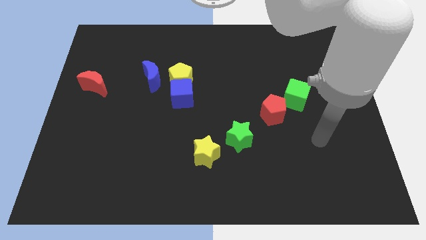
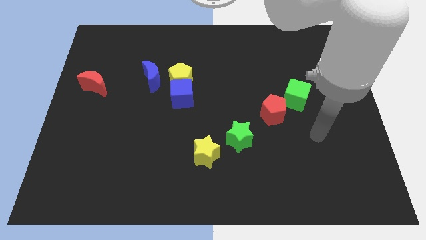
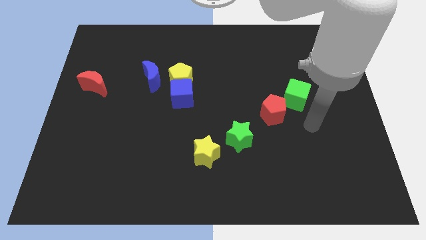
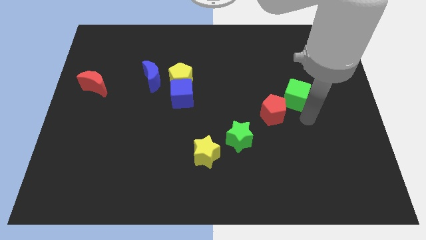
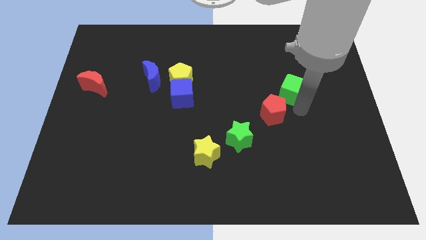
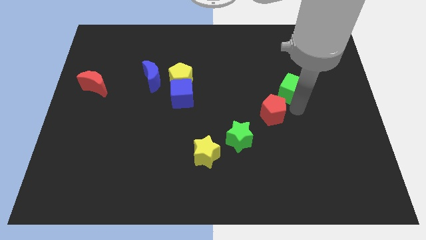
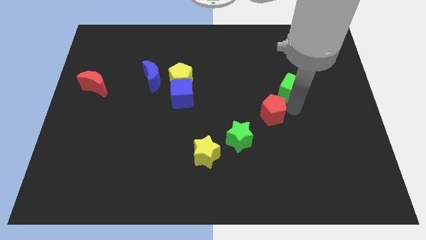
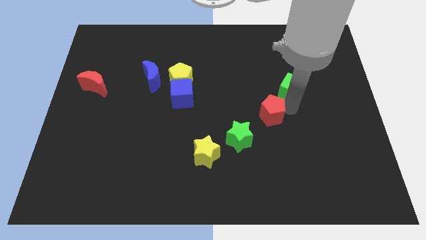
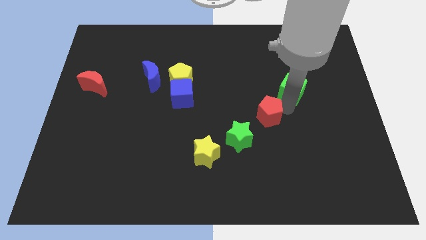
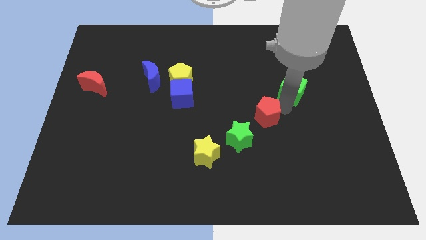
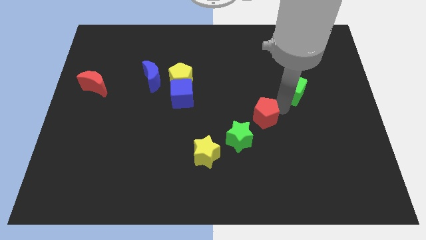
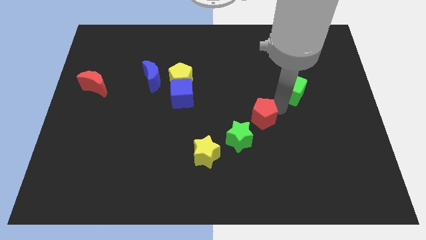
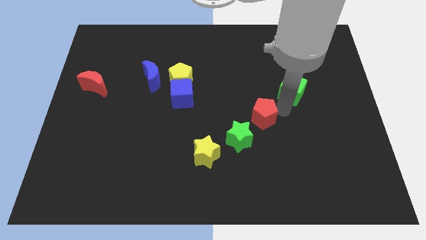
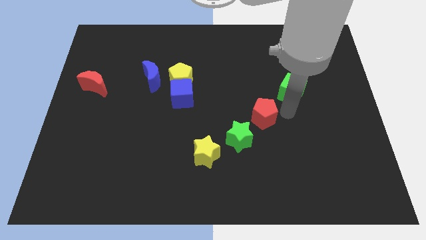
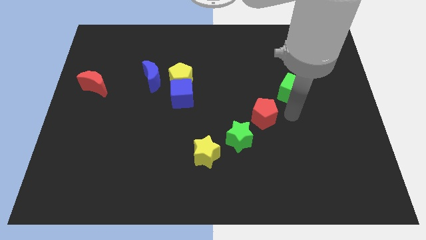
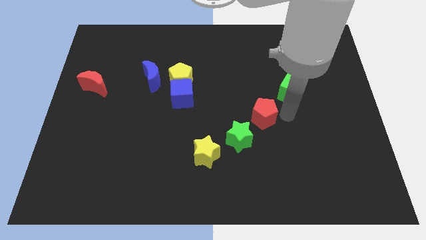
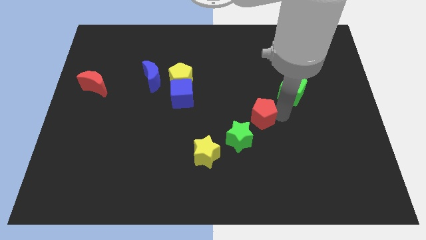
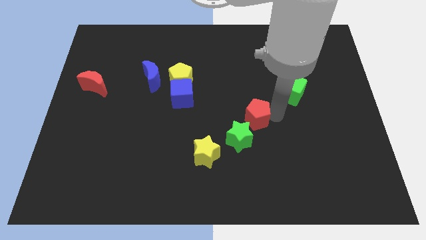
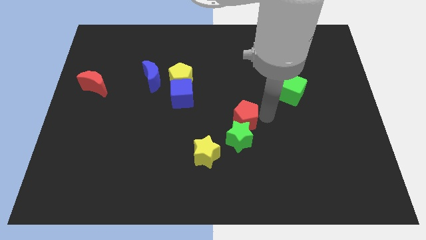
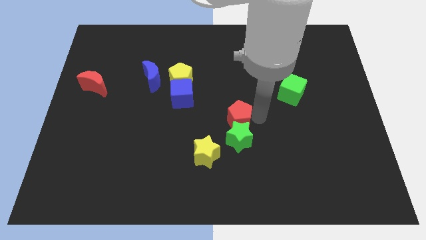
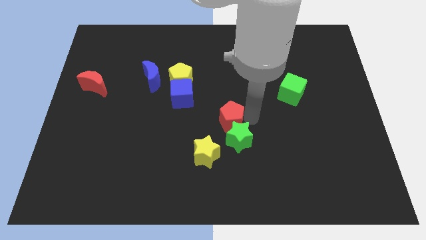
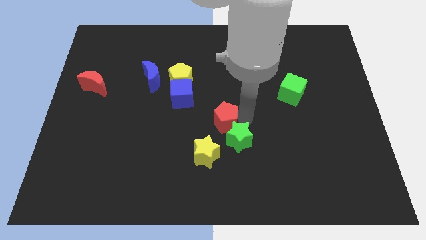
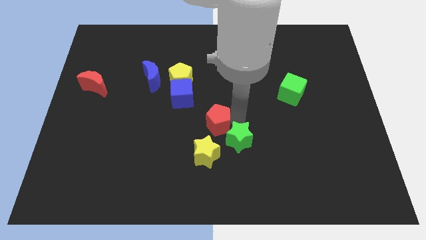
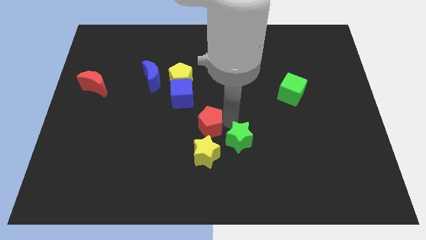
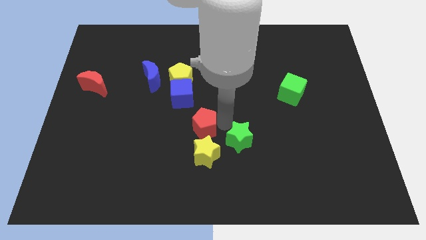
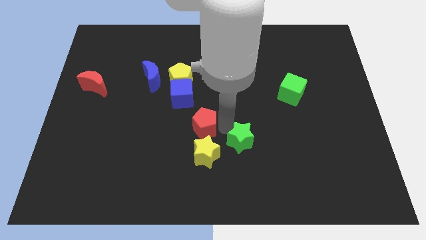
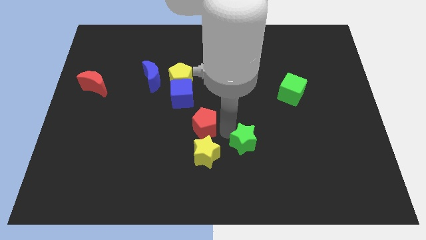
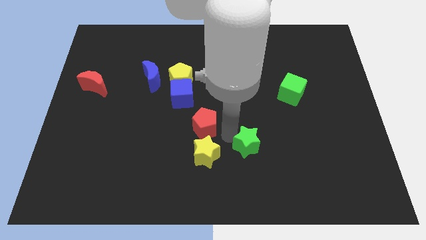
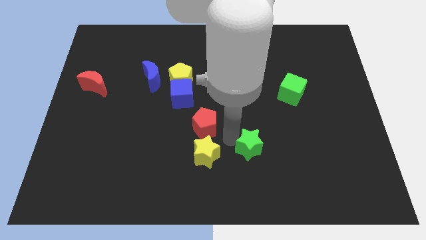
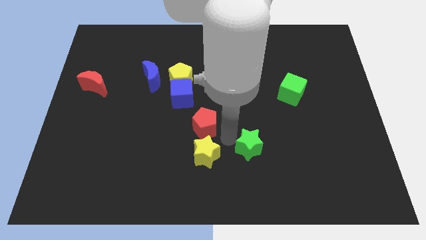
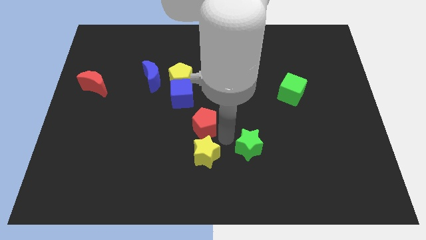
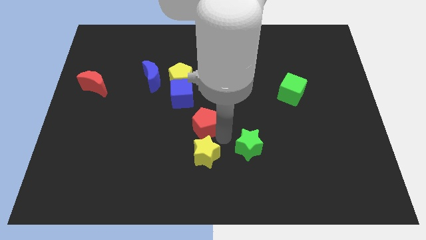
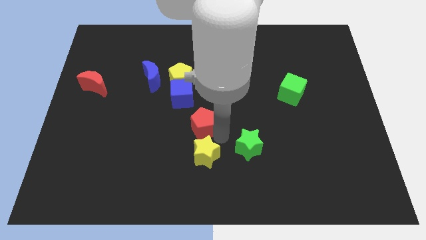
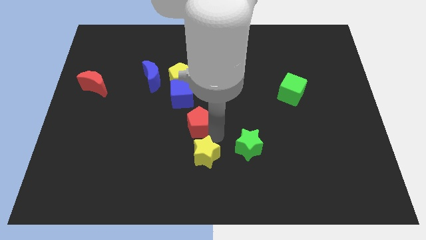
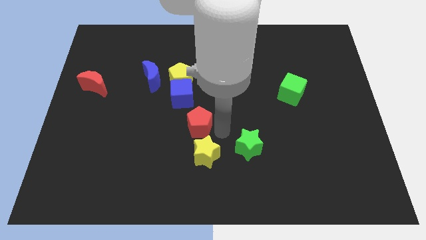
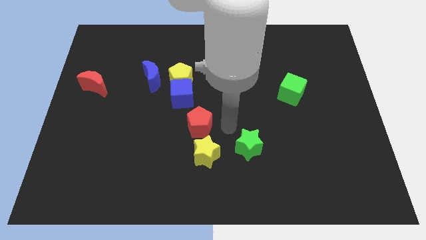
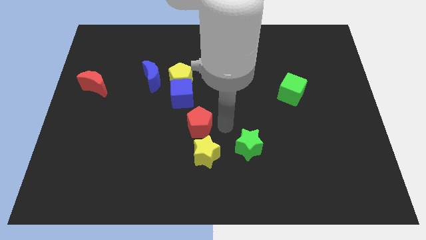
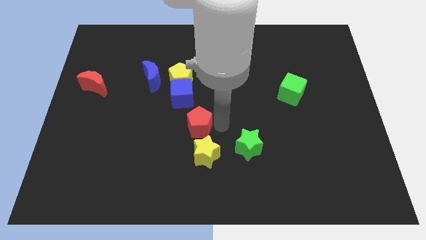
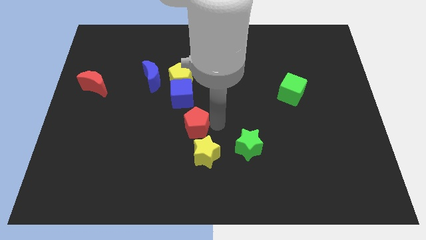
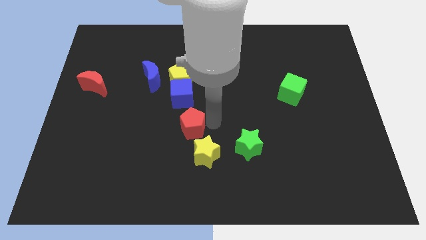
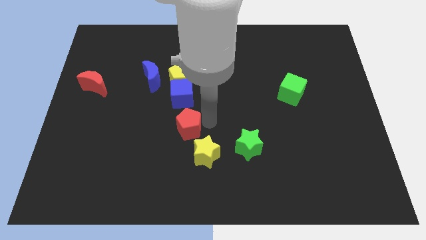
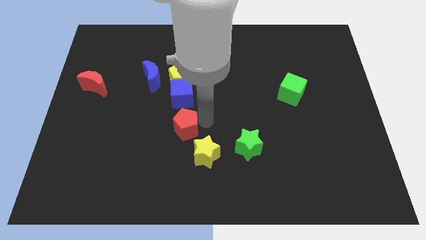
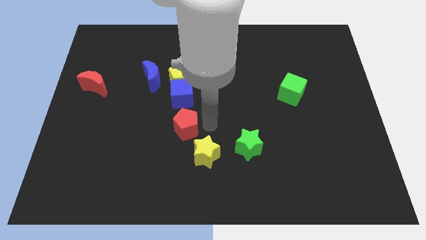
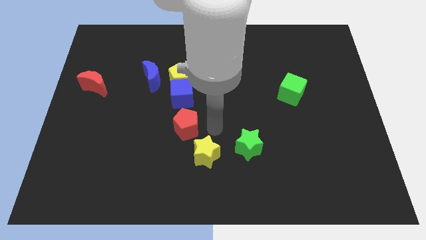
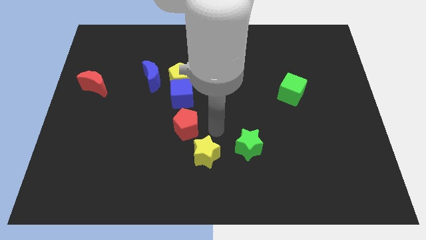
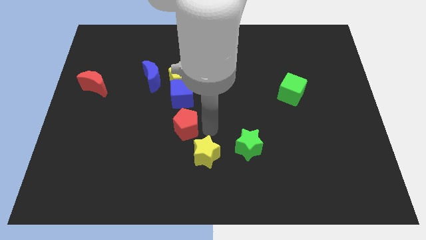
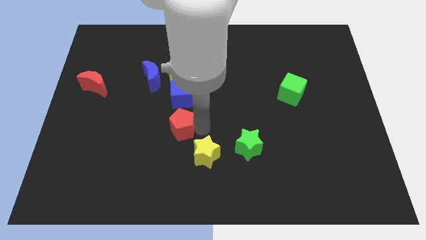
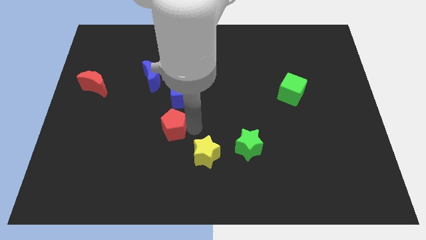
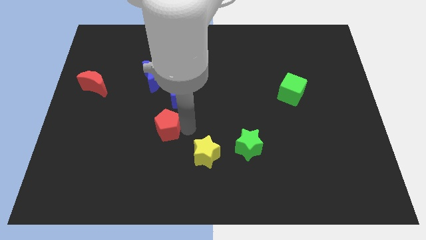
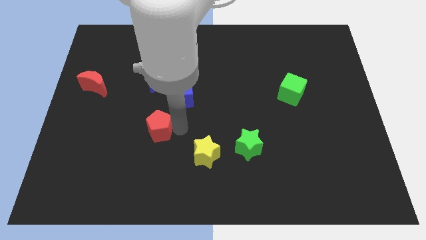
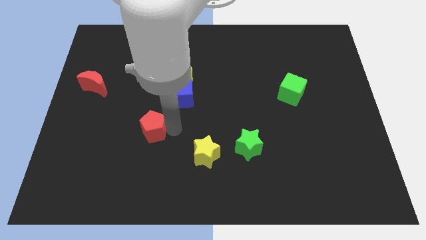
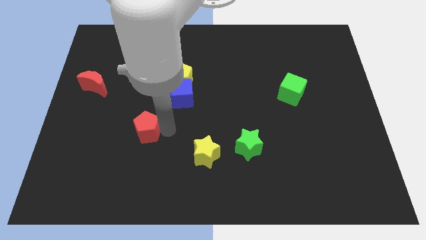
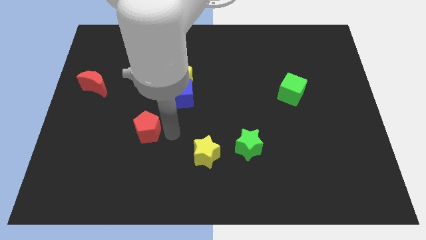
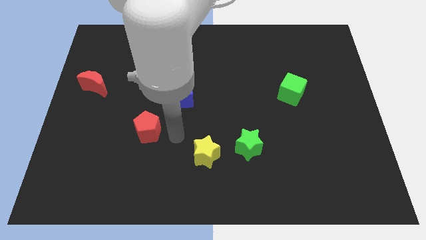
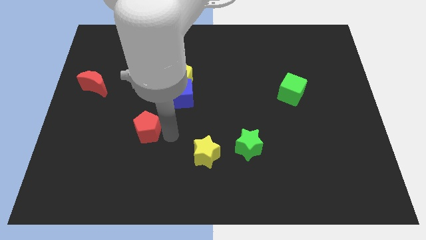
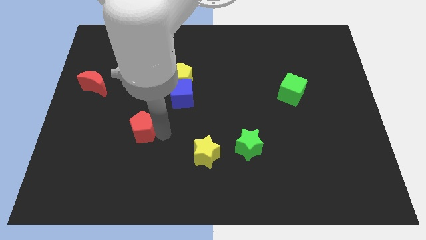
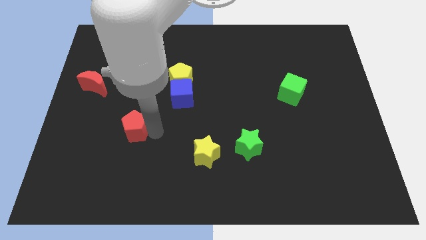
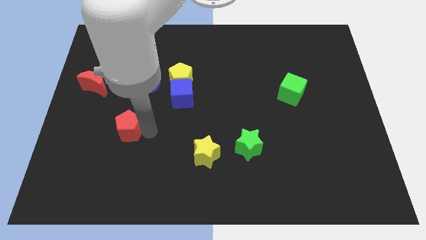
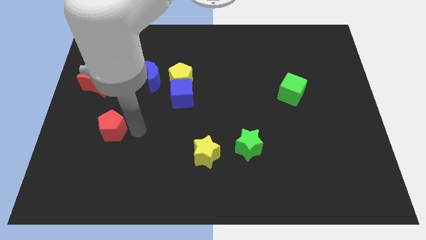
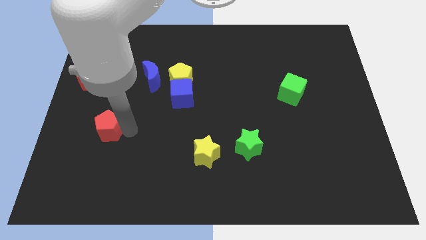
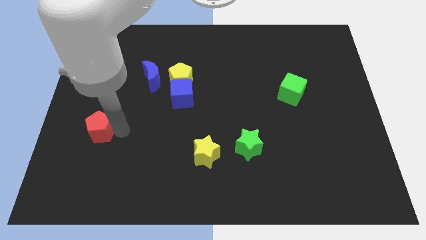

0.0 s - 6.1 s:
move the red pentagon below the red moon

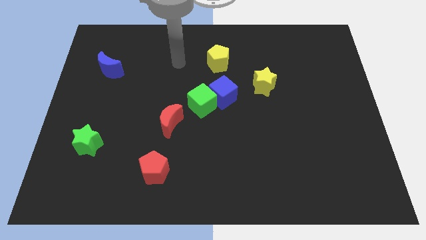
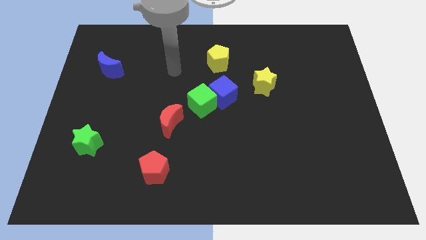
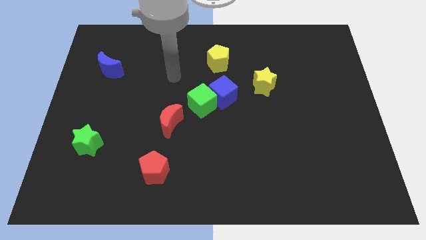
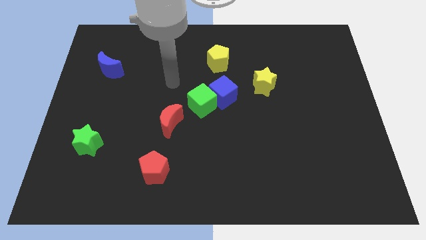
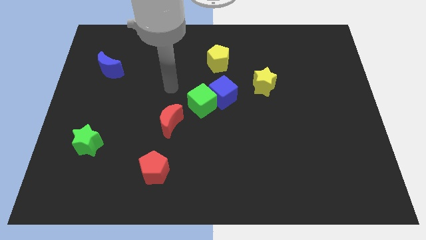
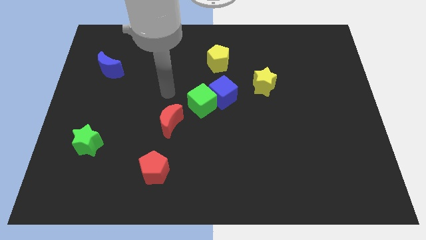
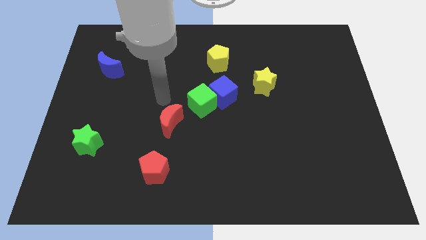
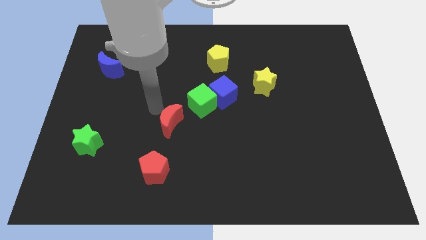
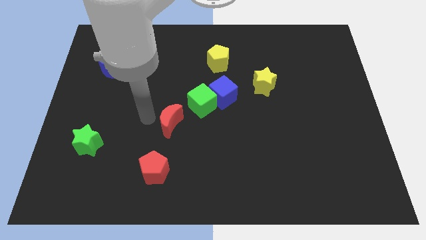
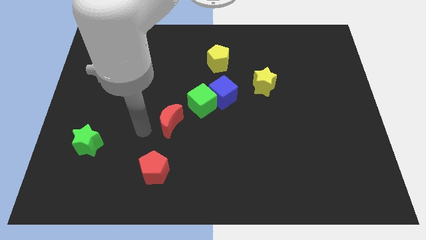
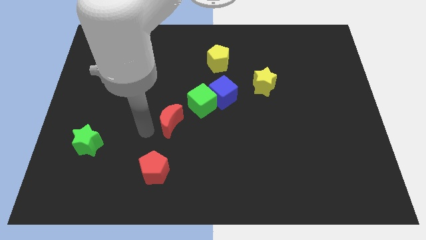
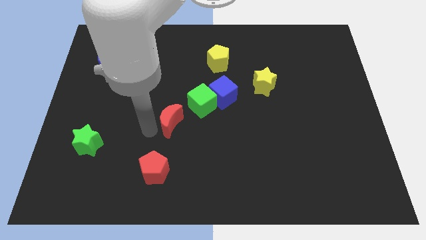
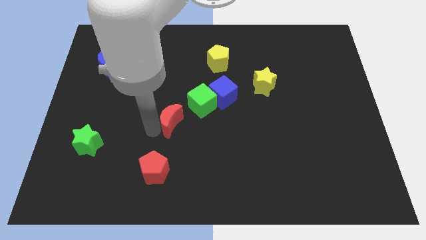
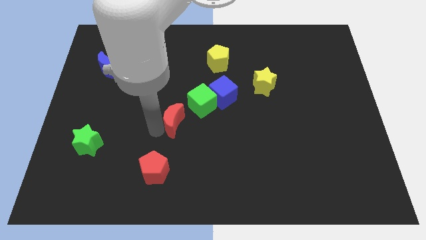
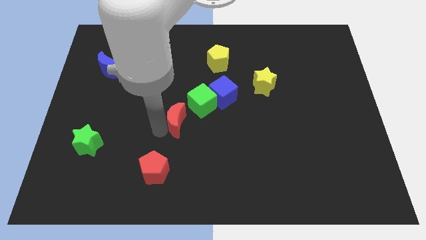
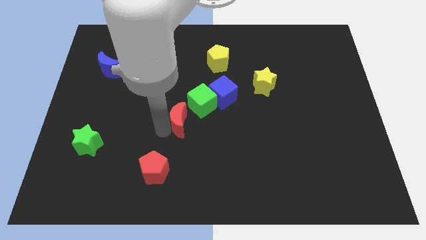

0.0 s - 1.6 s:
push the red moon diagonally down and to the left of the blue cube
